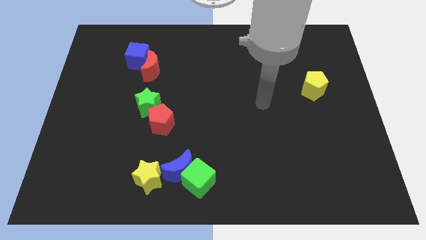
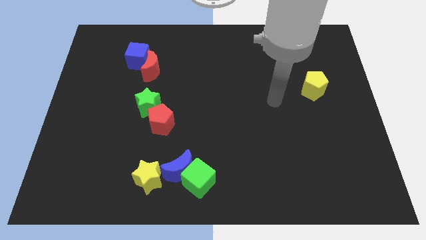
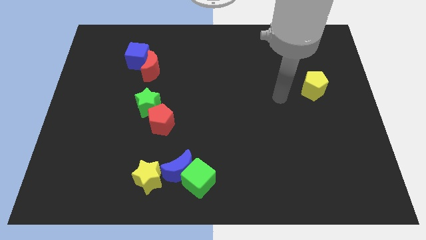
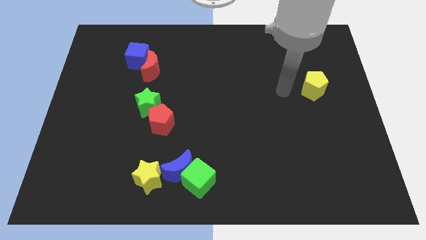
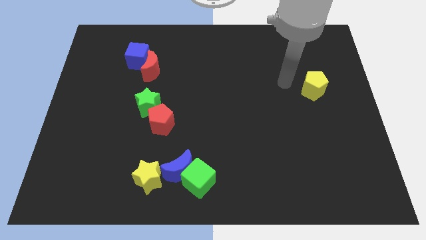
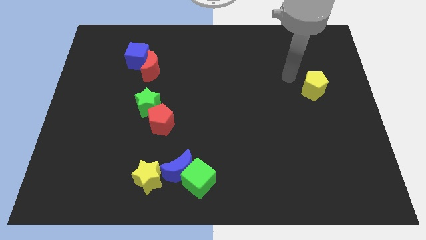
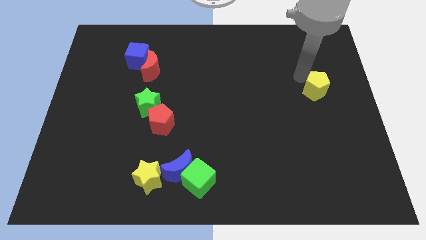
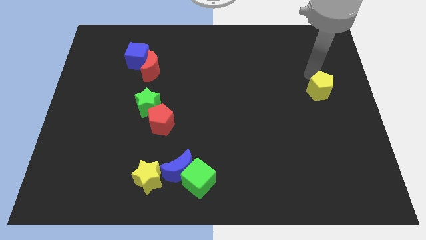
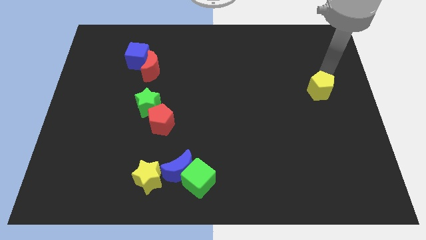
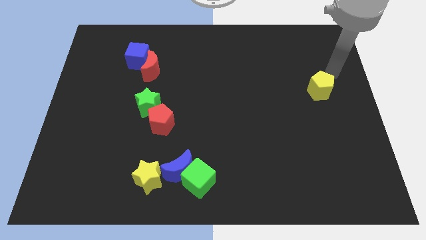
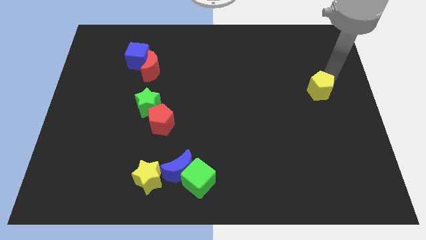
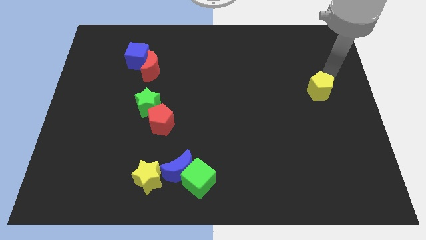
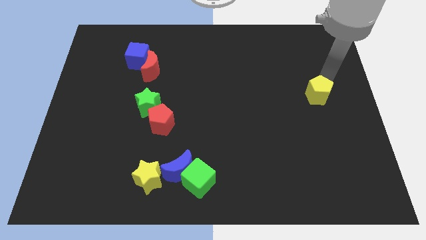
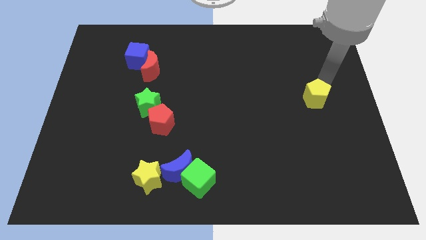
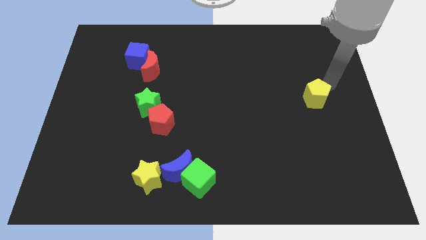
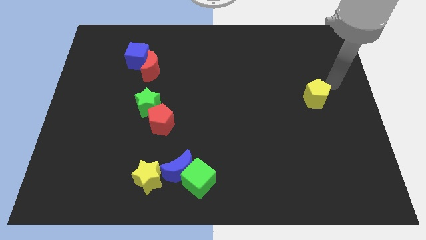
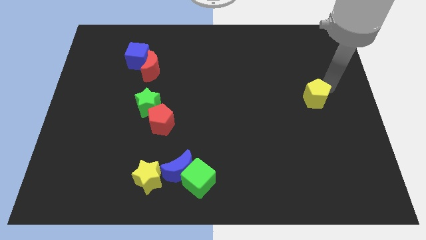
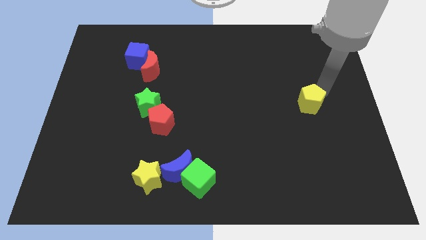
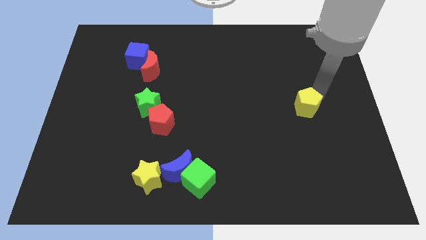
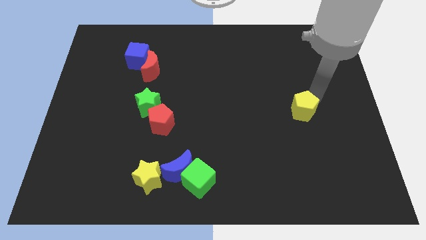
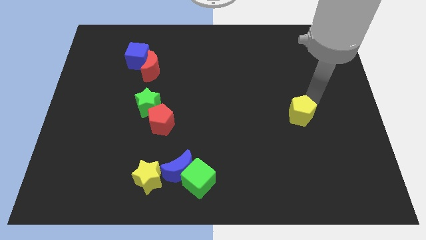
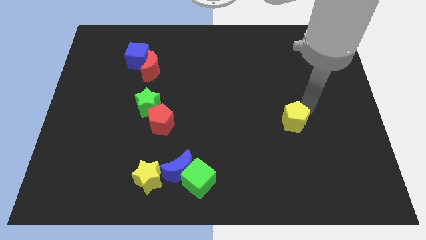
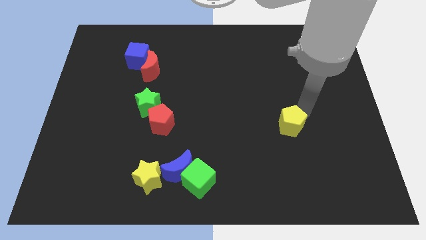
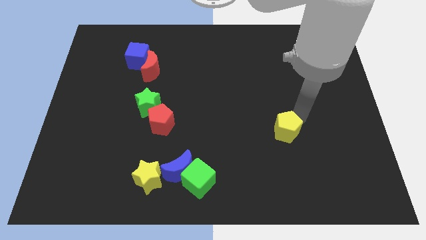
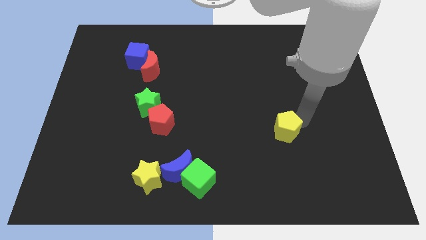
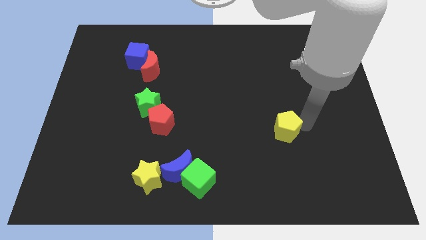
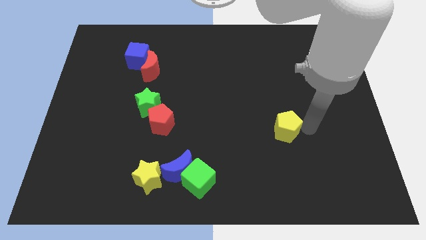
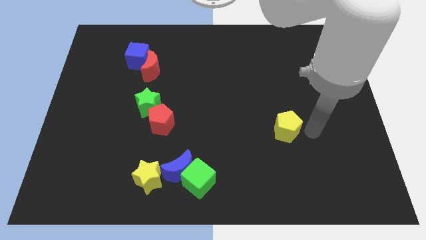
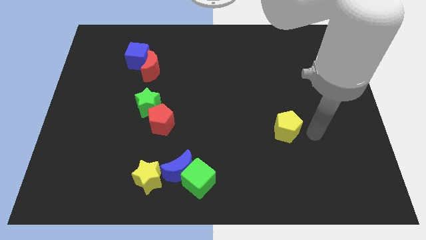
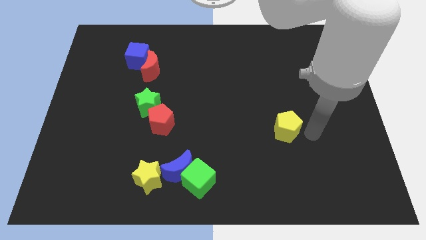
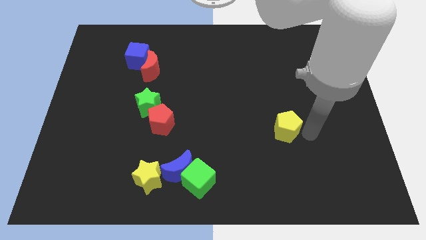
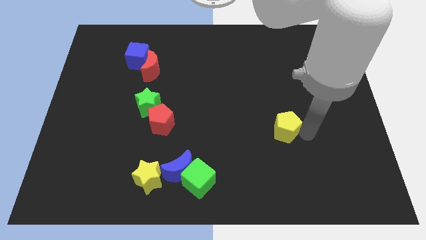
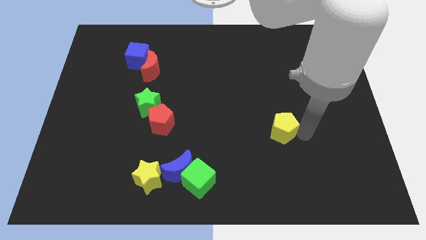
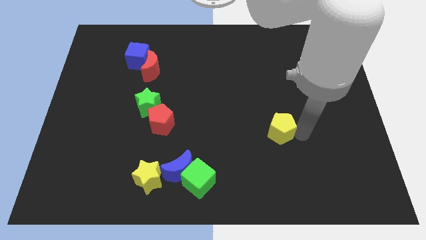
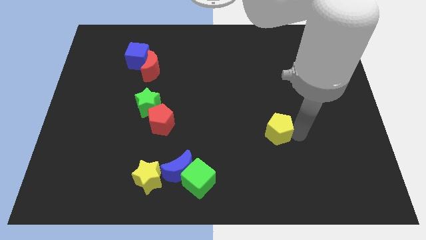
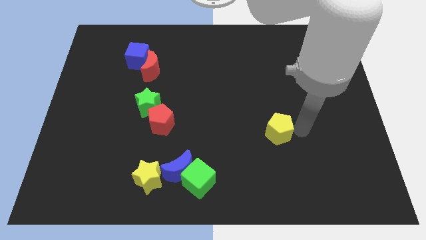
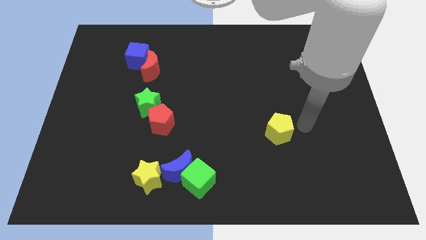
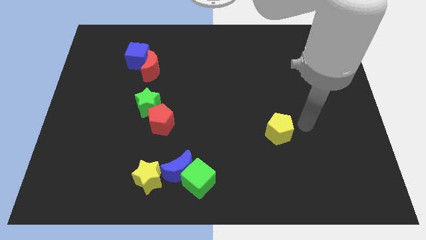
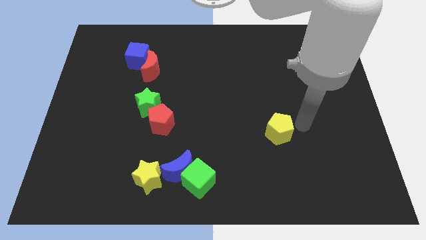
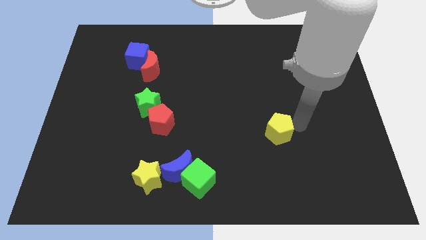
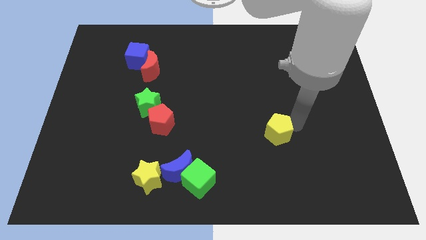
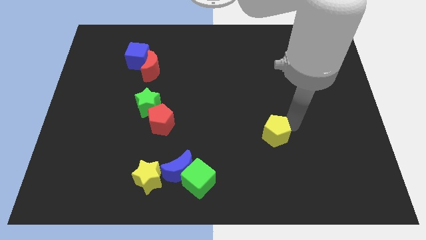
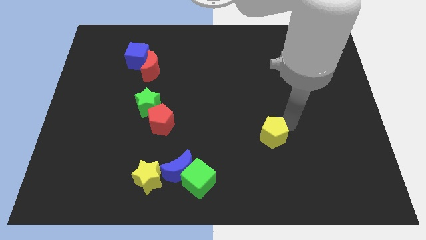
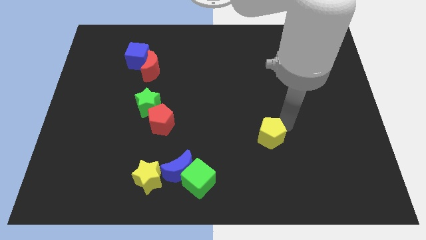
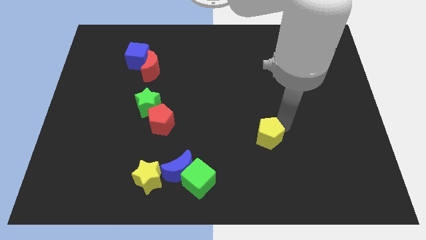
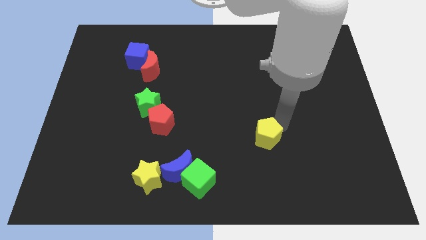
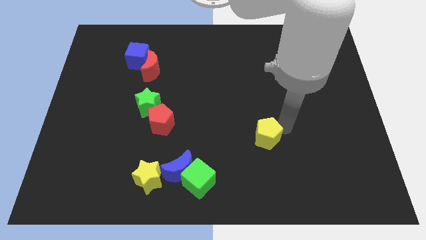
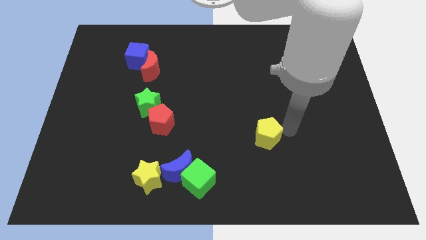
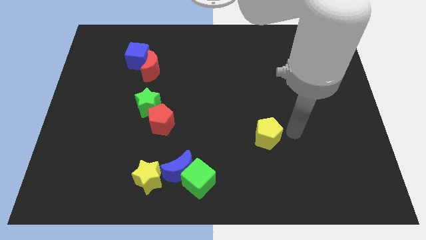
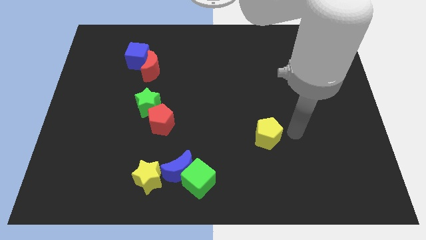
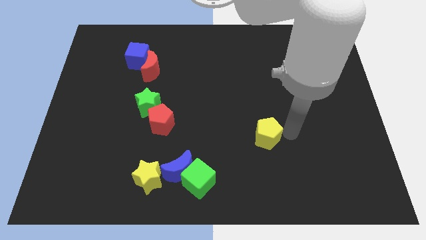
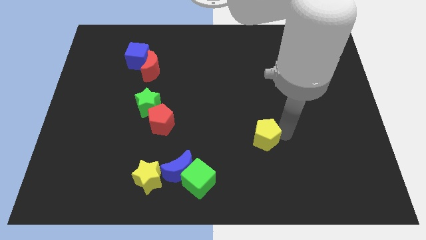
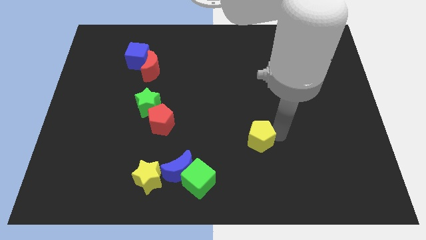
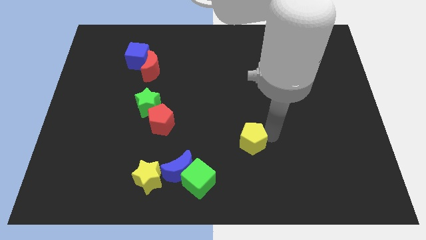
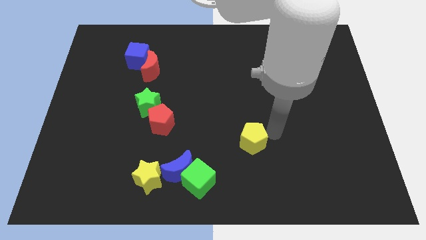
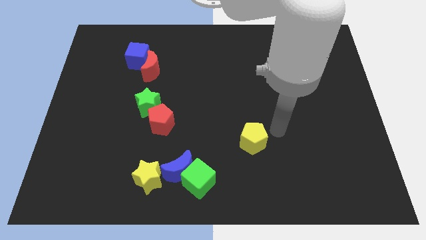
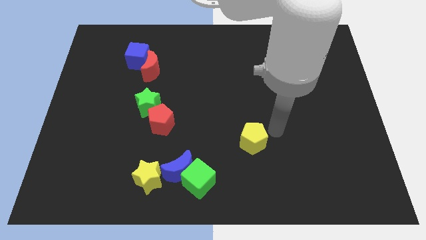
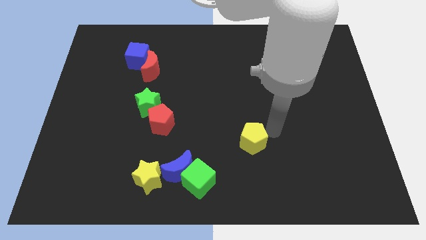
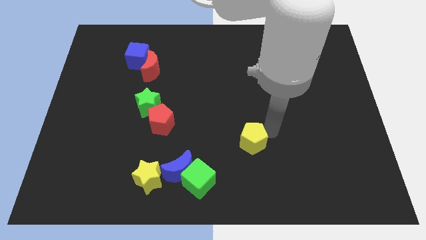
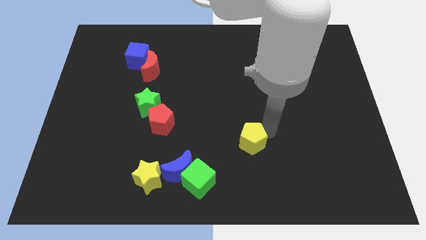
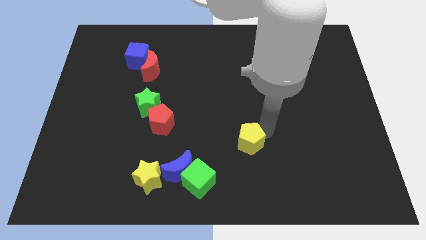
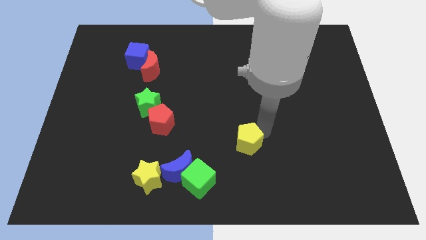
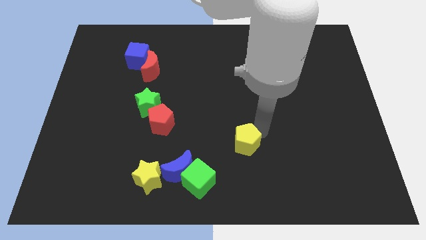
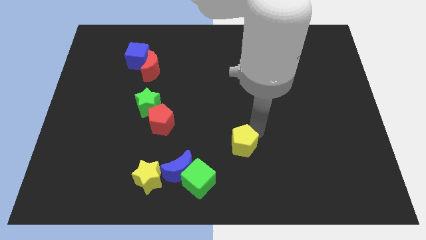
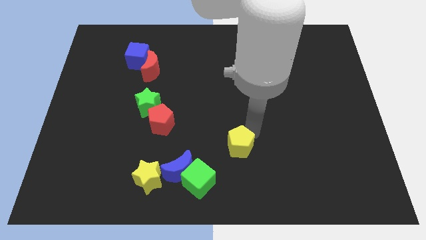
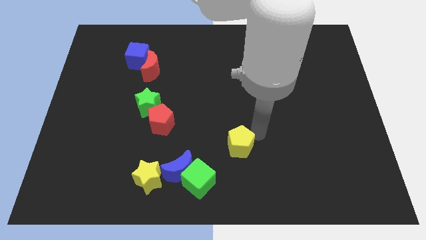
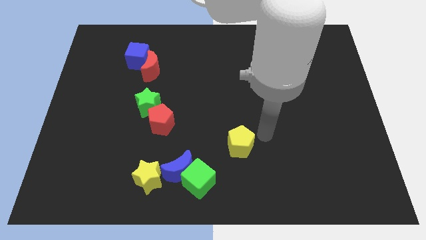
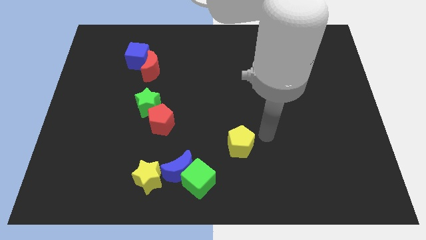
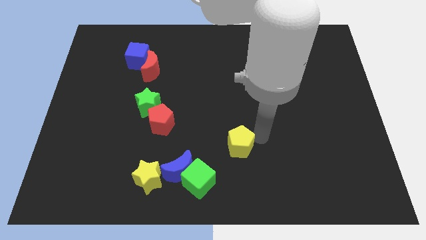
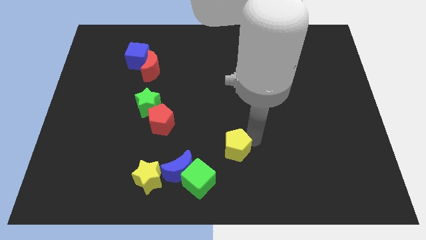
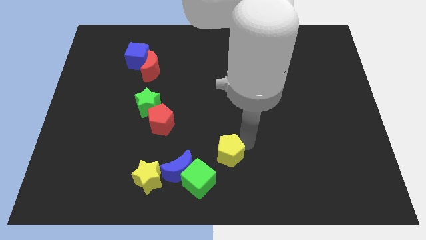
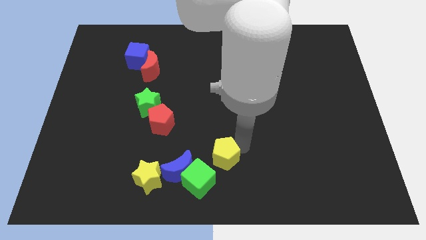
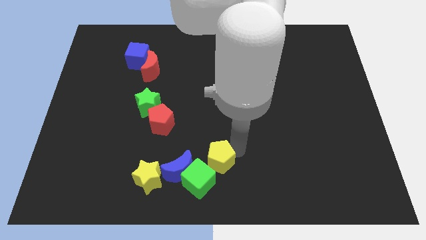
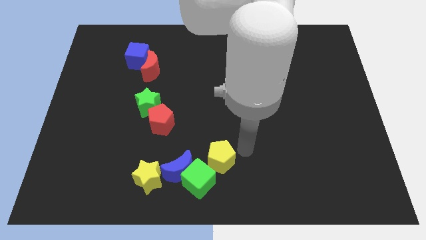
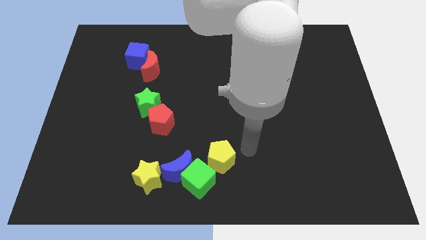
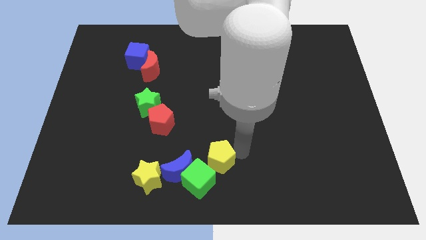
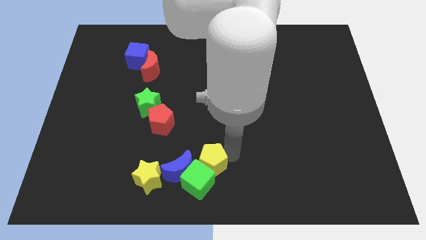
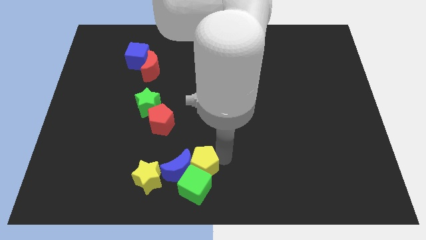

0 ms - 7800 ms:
slide the yellow pentagon close to the blue moon
